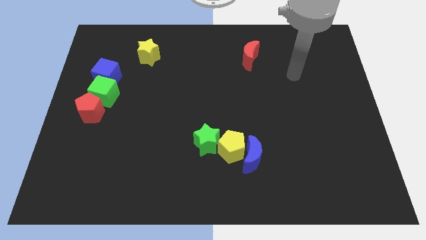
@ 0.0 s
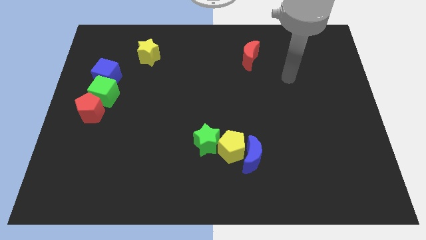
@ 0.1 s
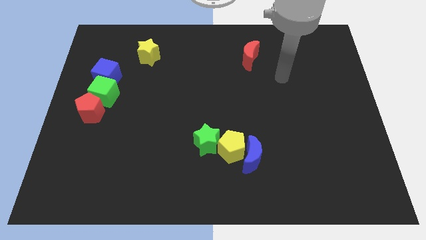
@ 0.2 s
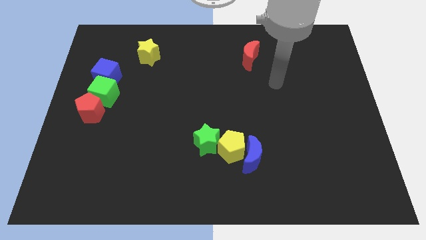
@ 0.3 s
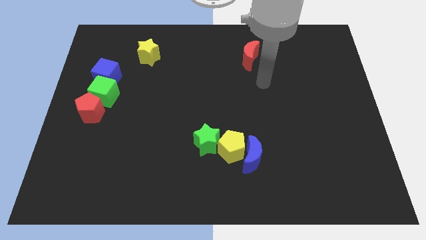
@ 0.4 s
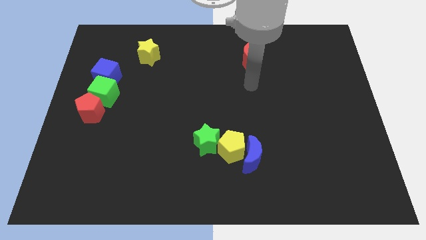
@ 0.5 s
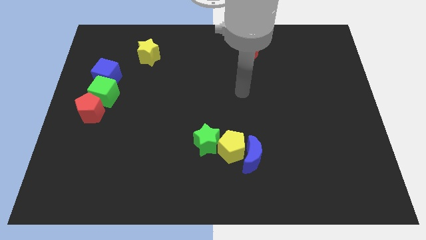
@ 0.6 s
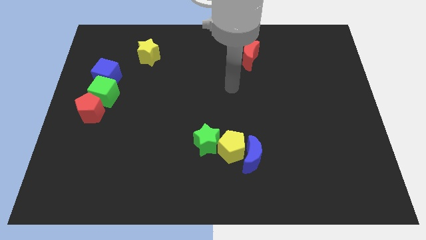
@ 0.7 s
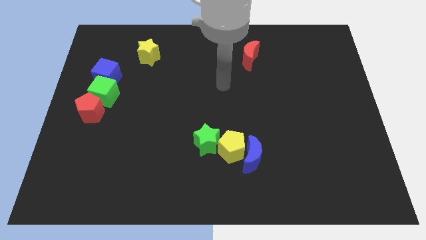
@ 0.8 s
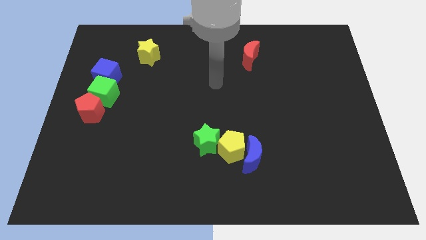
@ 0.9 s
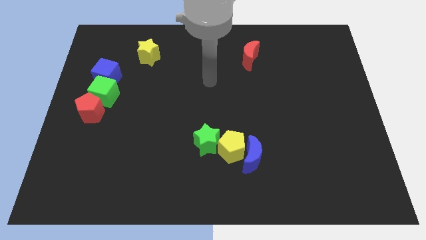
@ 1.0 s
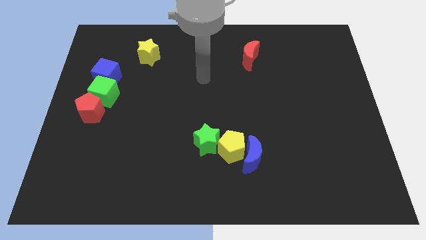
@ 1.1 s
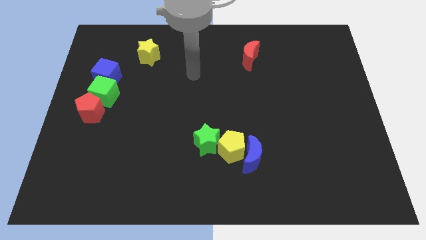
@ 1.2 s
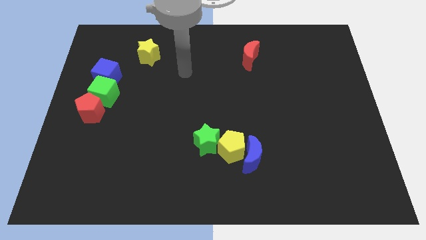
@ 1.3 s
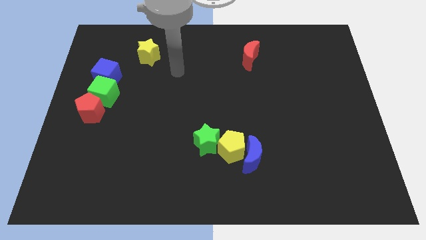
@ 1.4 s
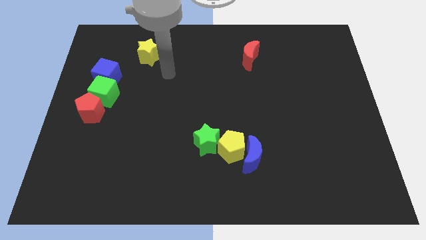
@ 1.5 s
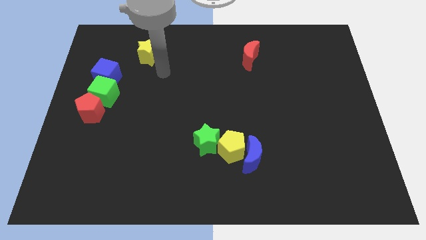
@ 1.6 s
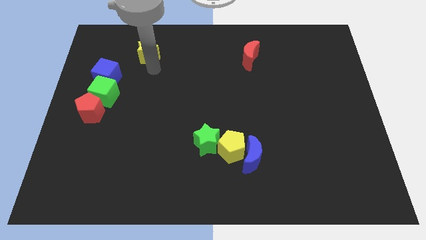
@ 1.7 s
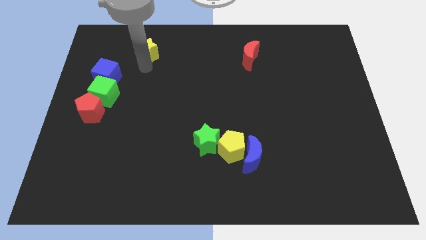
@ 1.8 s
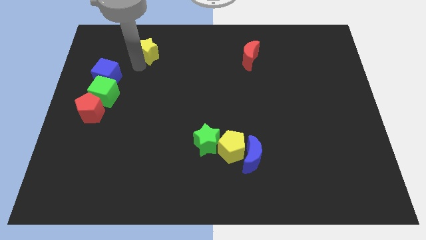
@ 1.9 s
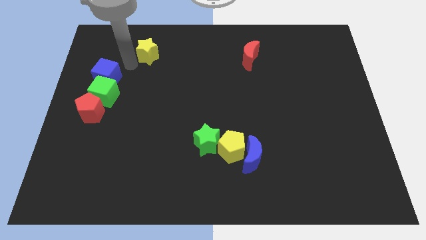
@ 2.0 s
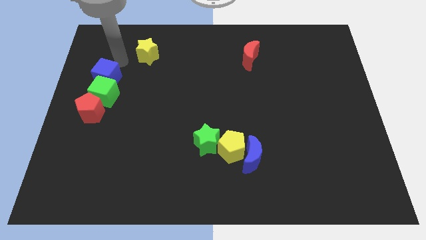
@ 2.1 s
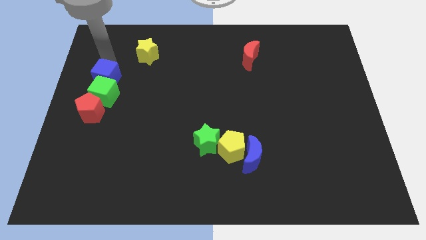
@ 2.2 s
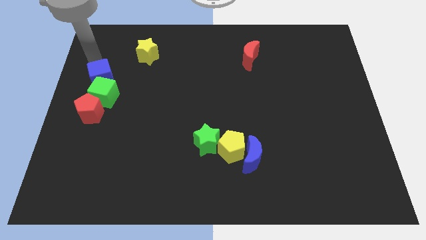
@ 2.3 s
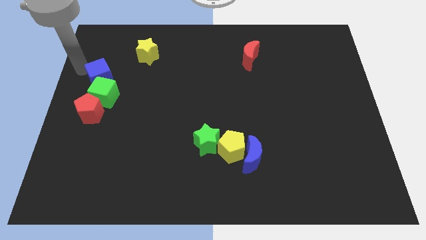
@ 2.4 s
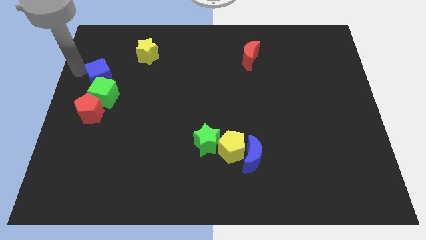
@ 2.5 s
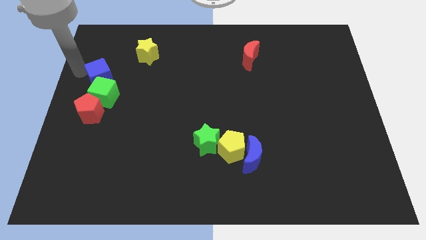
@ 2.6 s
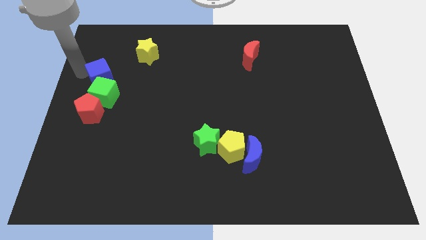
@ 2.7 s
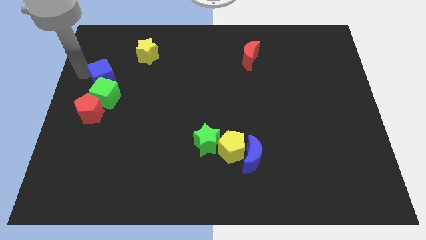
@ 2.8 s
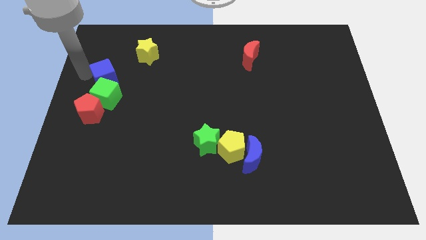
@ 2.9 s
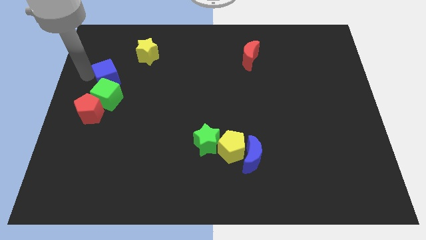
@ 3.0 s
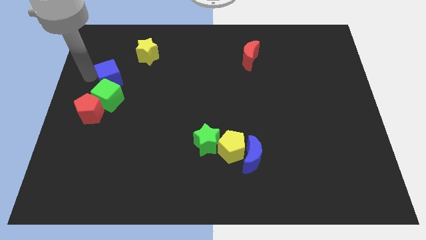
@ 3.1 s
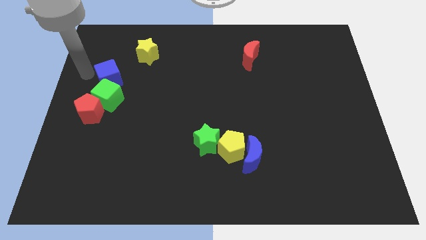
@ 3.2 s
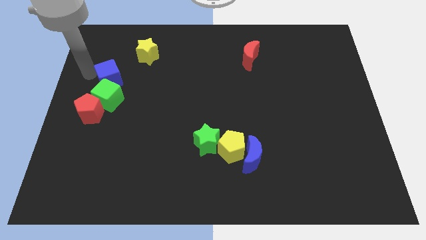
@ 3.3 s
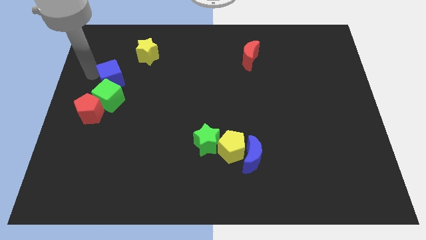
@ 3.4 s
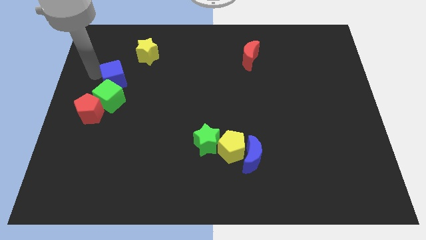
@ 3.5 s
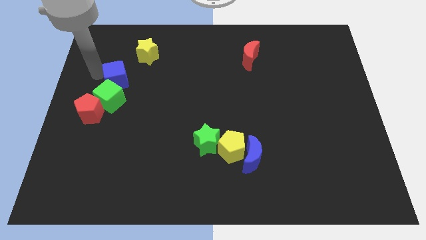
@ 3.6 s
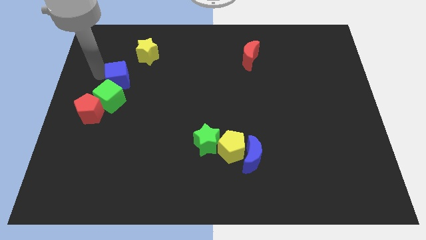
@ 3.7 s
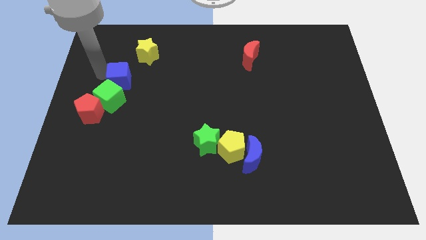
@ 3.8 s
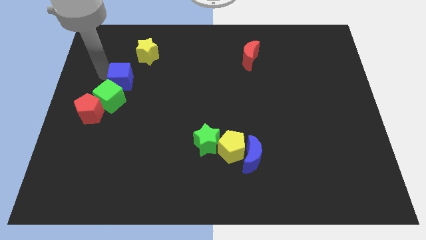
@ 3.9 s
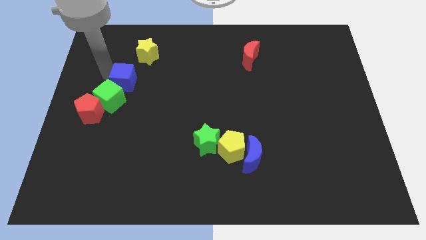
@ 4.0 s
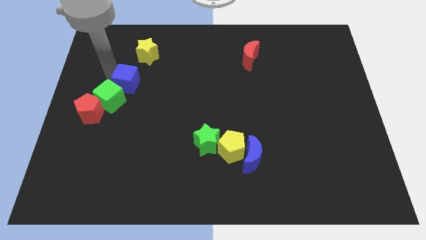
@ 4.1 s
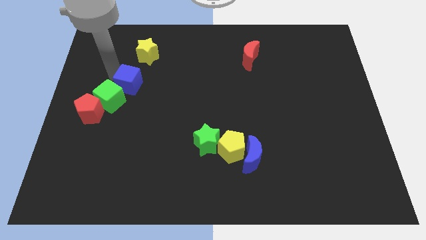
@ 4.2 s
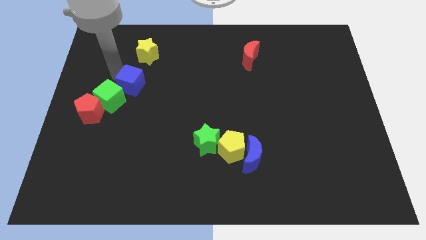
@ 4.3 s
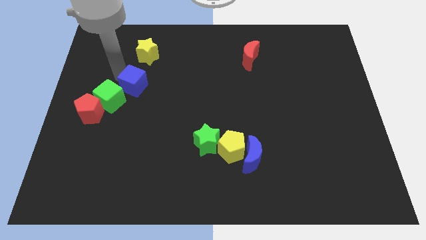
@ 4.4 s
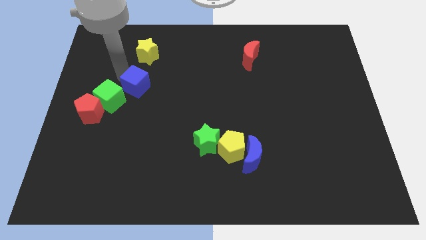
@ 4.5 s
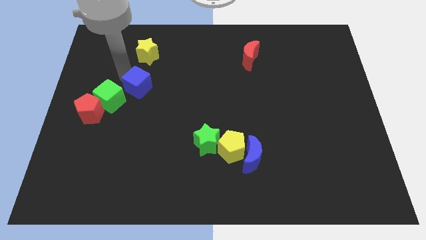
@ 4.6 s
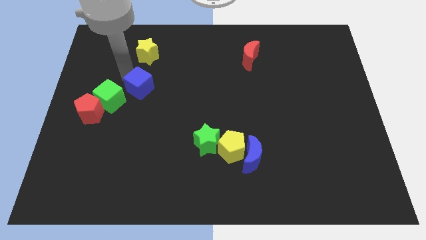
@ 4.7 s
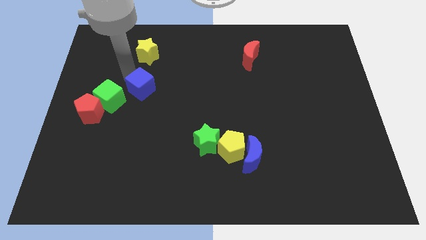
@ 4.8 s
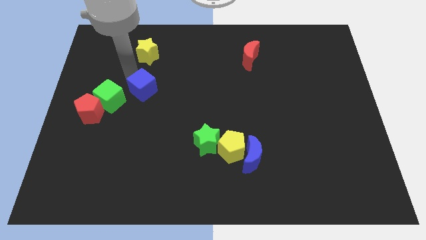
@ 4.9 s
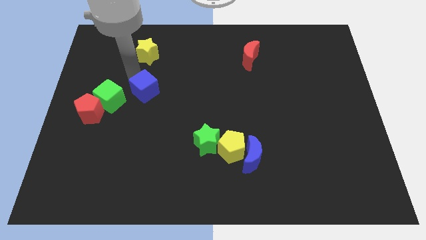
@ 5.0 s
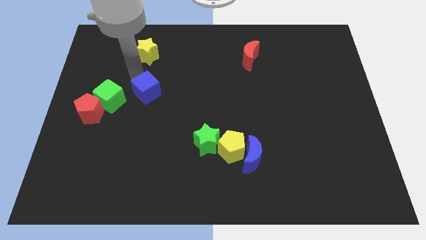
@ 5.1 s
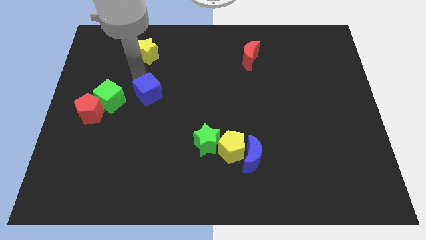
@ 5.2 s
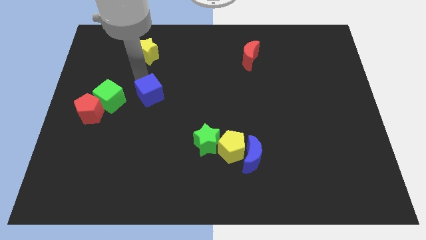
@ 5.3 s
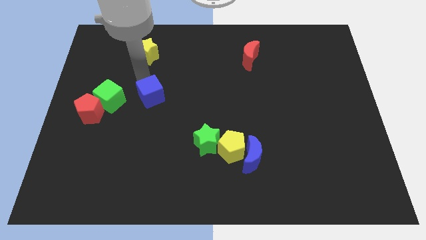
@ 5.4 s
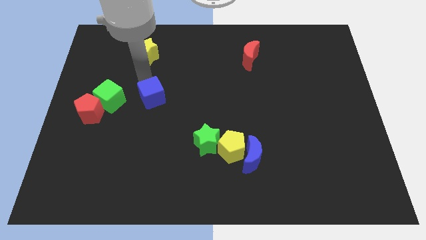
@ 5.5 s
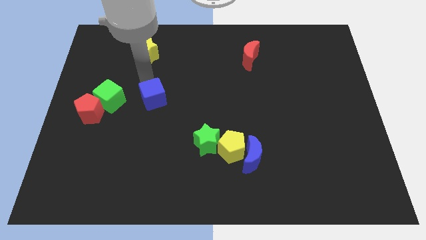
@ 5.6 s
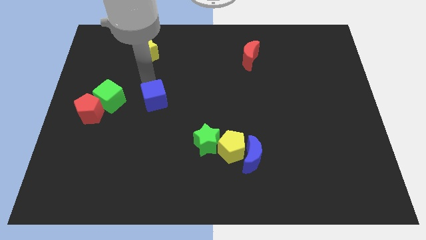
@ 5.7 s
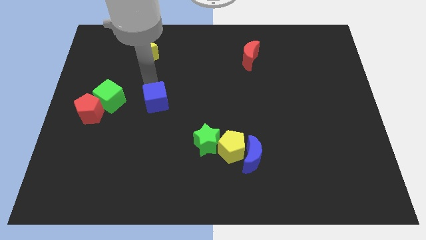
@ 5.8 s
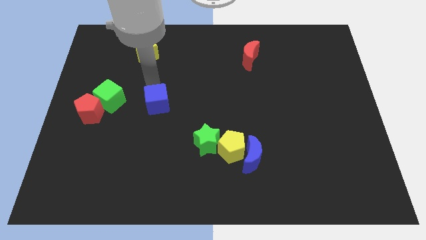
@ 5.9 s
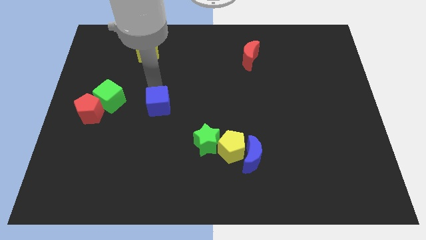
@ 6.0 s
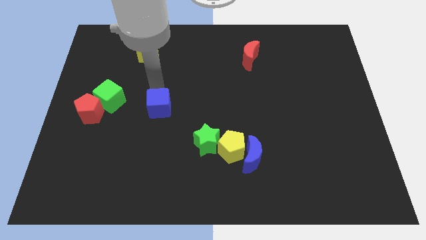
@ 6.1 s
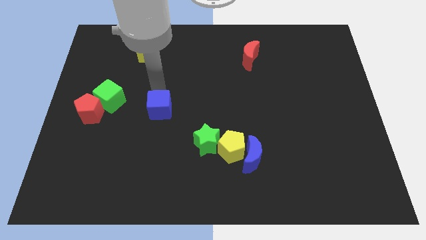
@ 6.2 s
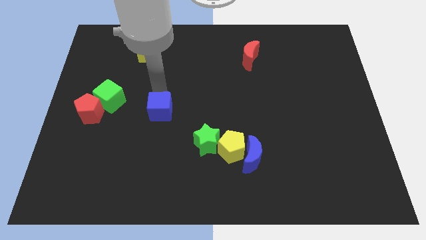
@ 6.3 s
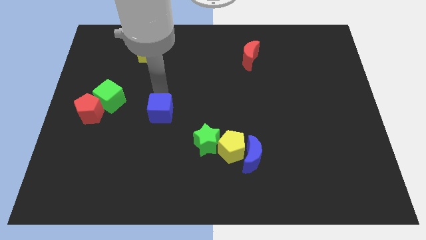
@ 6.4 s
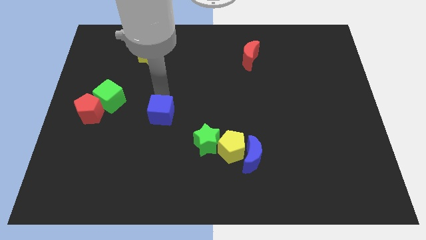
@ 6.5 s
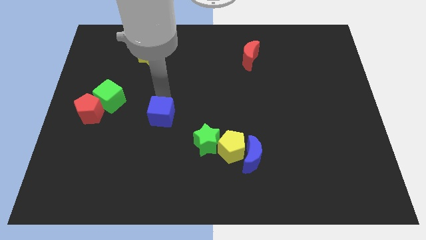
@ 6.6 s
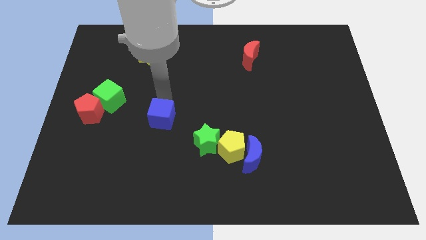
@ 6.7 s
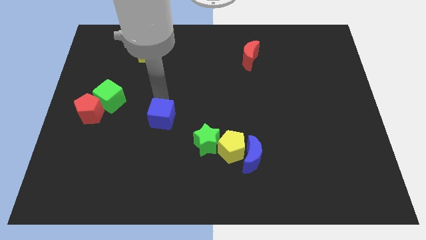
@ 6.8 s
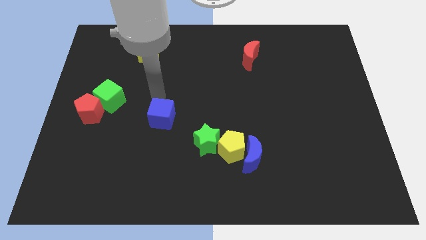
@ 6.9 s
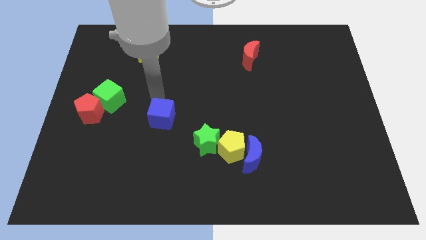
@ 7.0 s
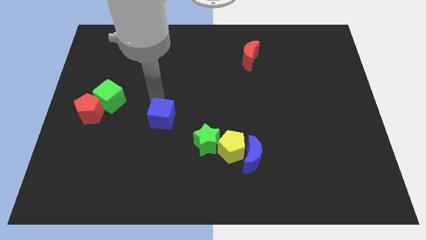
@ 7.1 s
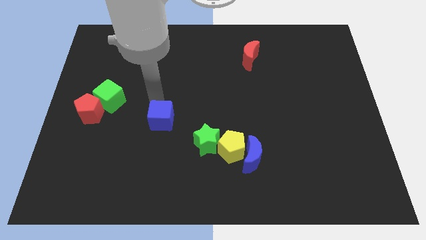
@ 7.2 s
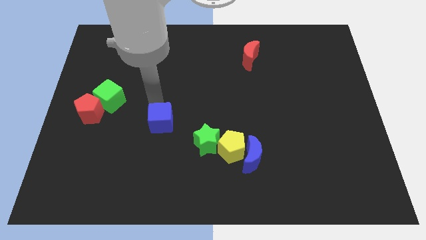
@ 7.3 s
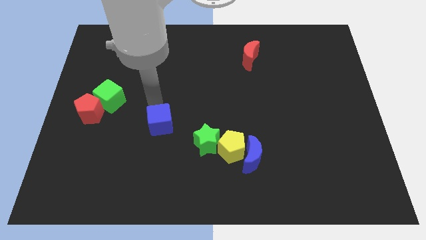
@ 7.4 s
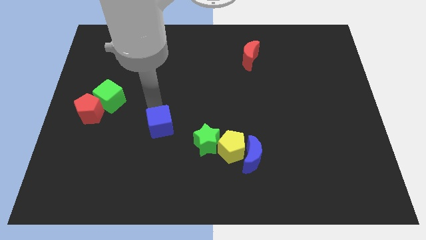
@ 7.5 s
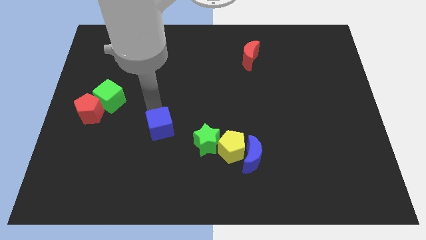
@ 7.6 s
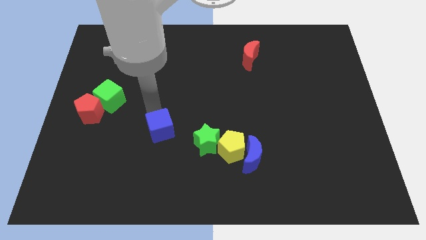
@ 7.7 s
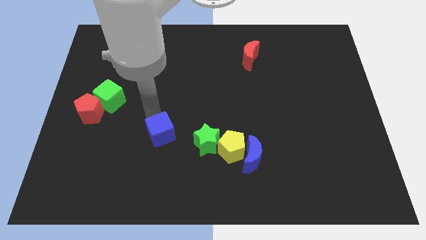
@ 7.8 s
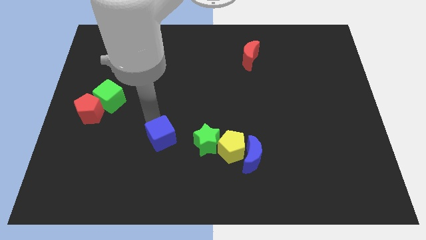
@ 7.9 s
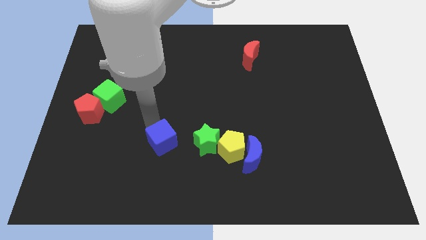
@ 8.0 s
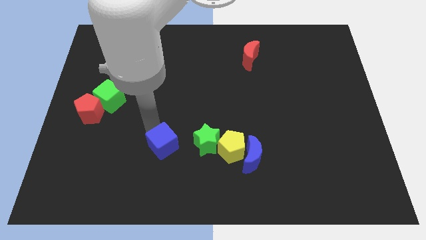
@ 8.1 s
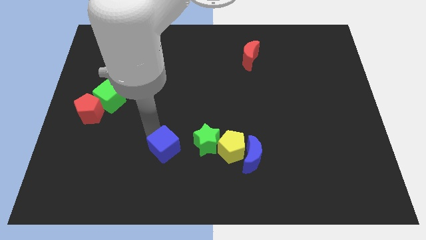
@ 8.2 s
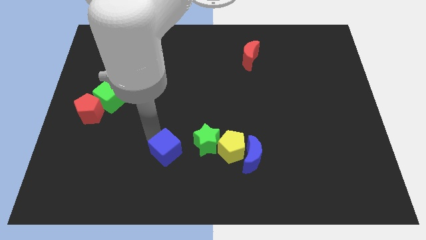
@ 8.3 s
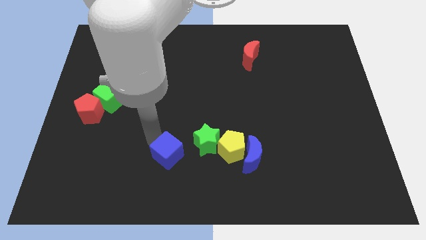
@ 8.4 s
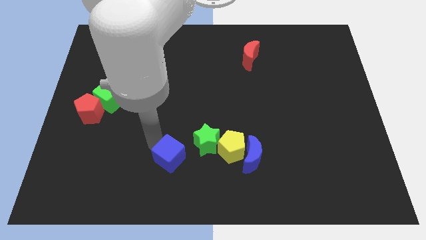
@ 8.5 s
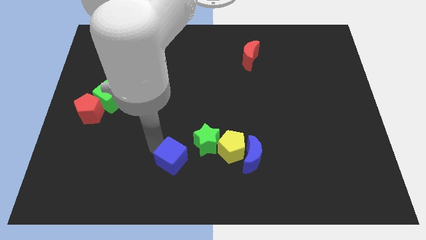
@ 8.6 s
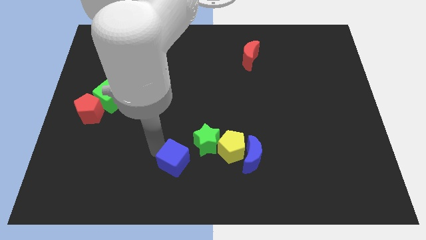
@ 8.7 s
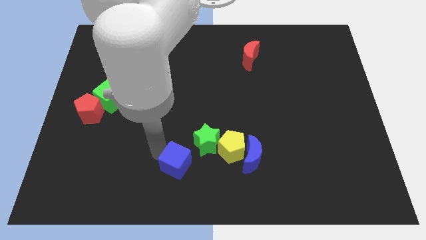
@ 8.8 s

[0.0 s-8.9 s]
push the blue cube to the left side of the blue moon
